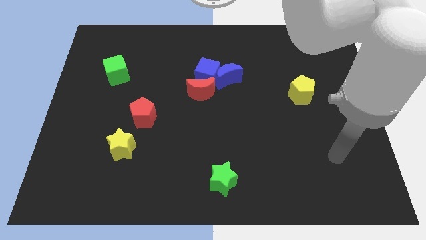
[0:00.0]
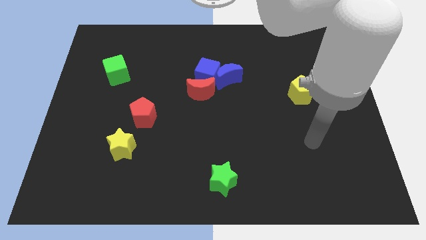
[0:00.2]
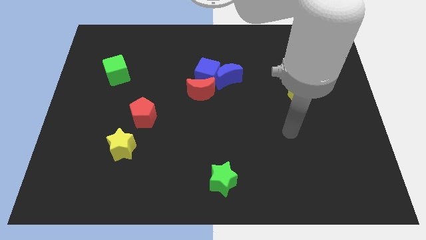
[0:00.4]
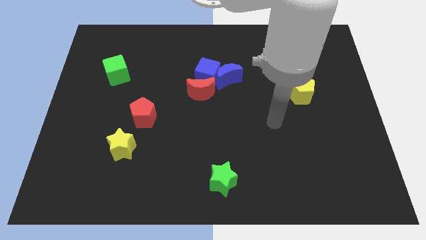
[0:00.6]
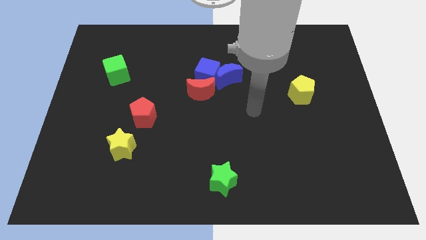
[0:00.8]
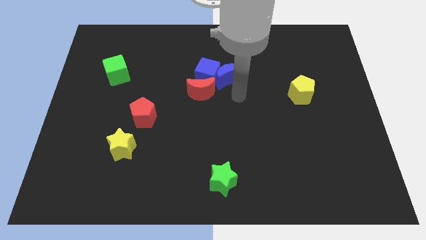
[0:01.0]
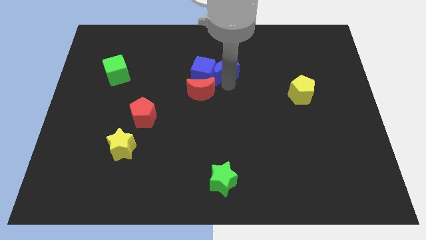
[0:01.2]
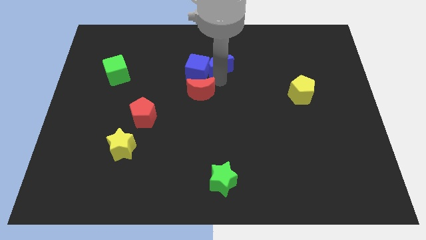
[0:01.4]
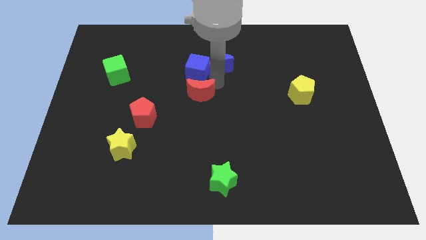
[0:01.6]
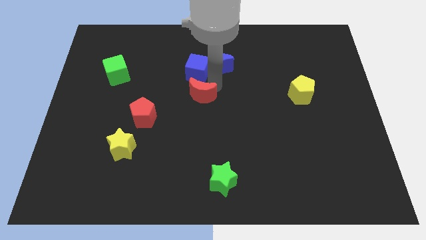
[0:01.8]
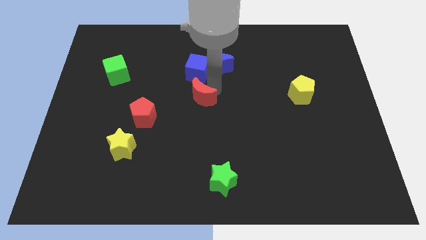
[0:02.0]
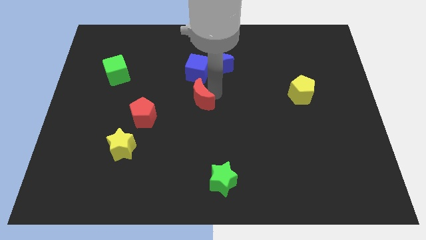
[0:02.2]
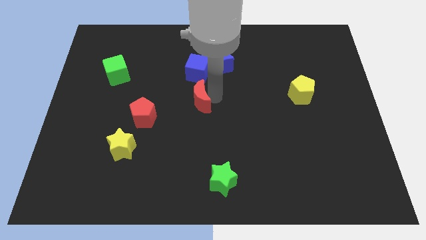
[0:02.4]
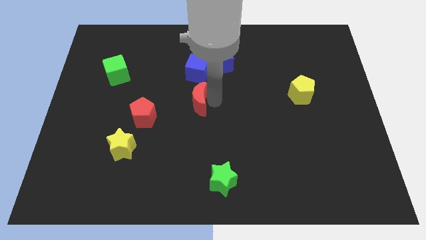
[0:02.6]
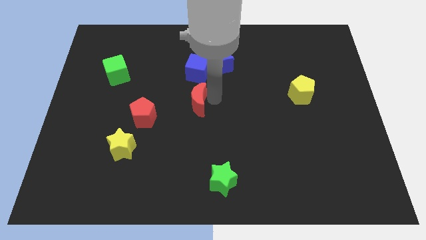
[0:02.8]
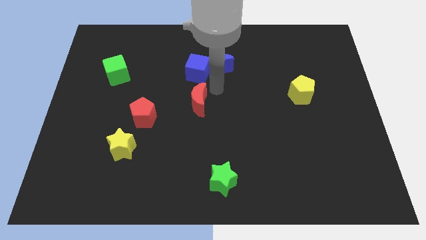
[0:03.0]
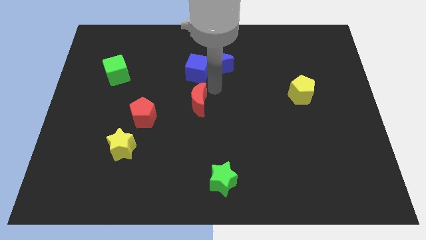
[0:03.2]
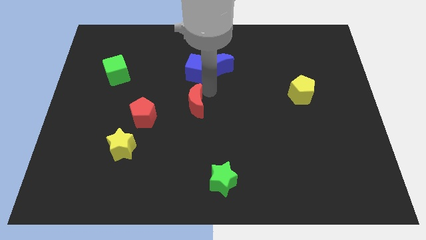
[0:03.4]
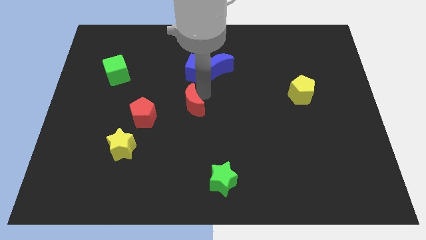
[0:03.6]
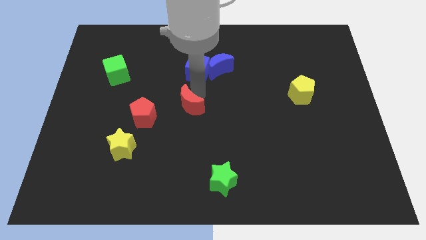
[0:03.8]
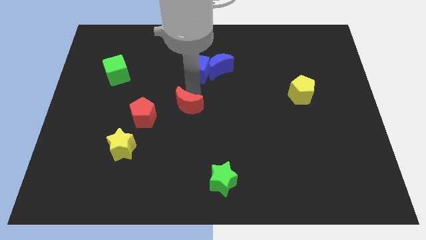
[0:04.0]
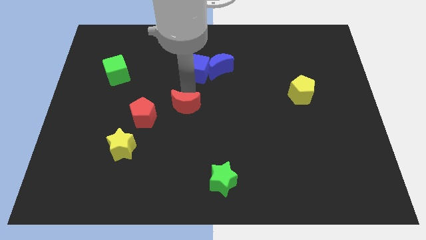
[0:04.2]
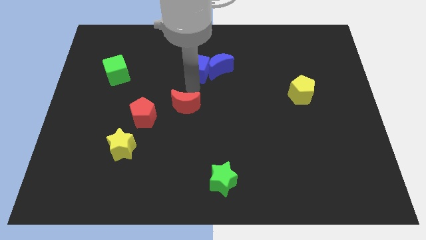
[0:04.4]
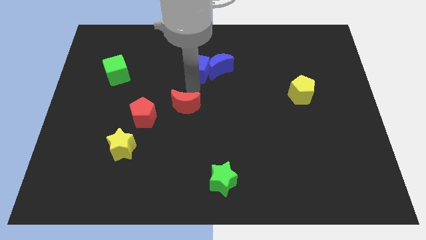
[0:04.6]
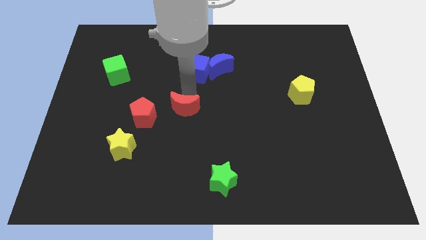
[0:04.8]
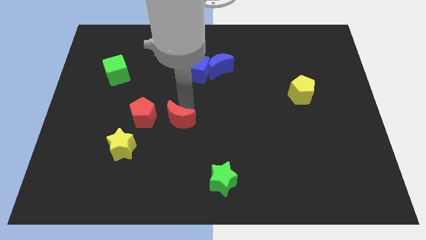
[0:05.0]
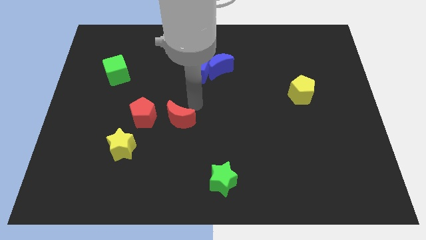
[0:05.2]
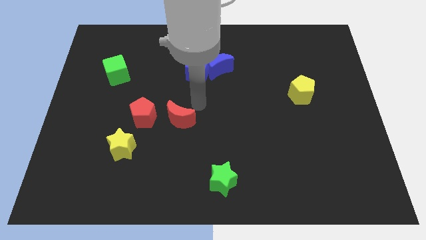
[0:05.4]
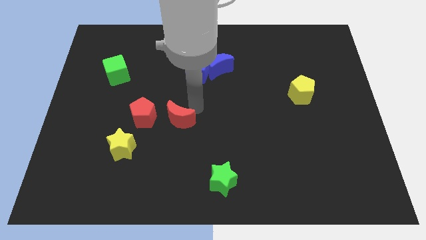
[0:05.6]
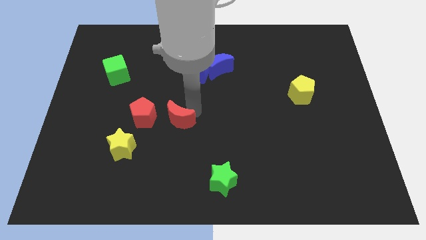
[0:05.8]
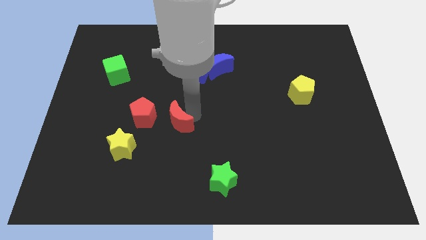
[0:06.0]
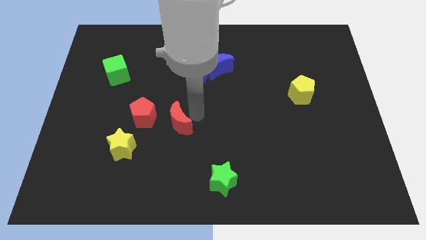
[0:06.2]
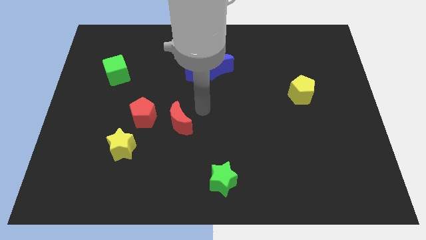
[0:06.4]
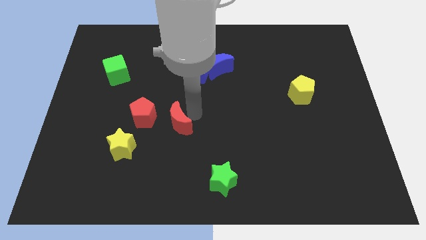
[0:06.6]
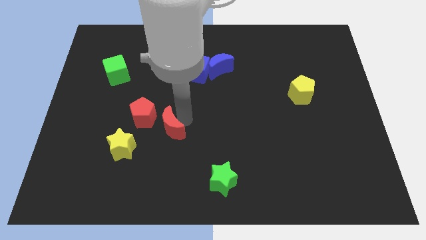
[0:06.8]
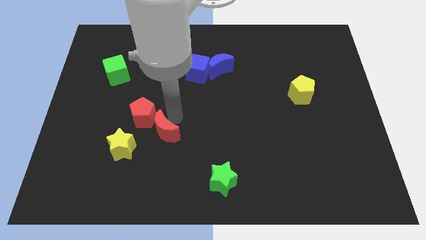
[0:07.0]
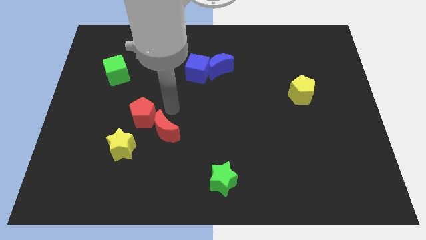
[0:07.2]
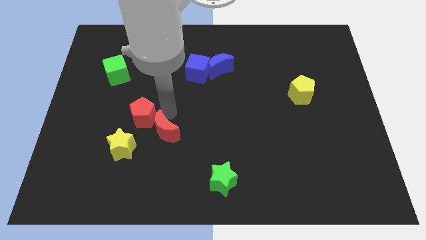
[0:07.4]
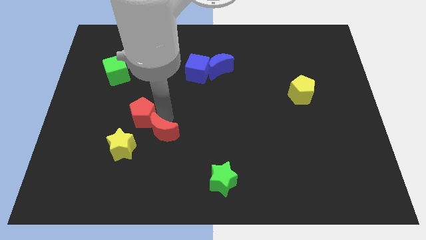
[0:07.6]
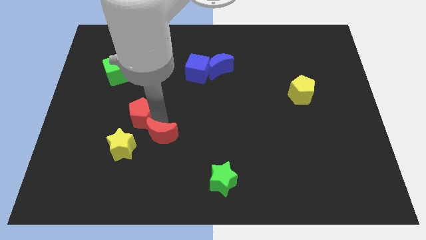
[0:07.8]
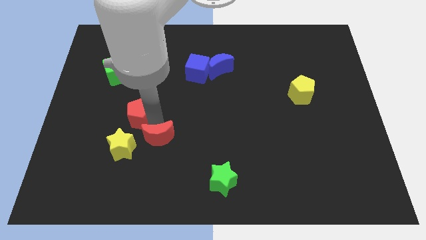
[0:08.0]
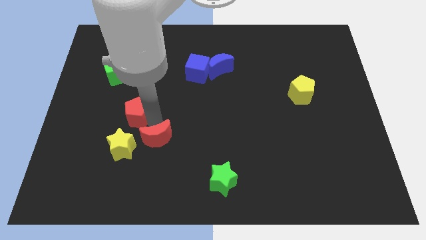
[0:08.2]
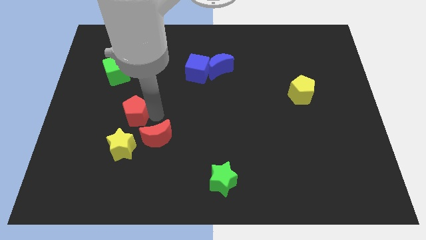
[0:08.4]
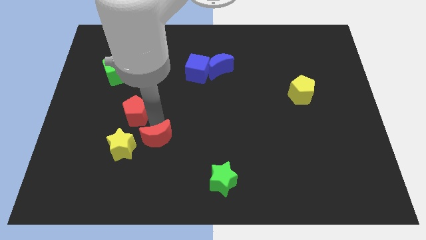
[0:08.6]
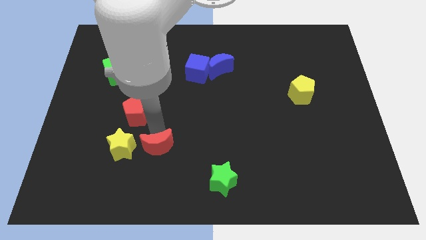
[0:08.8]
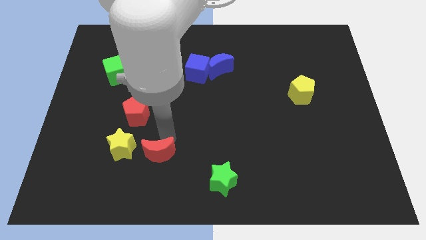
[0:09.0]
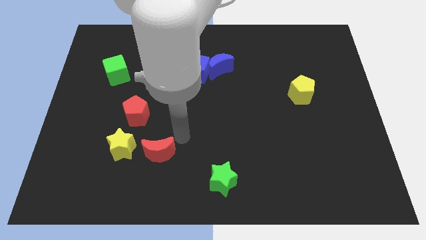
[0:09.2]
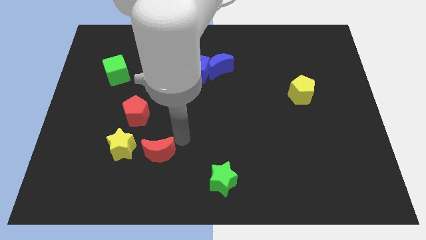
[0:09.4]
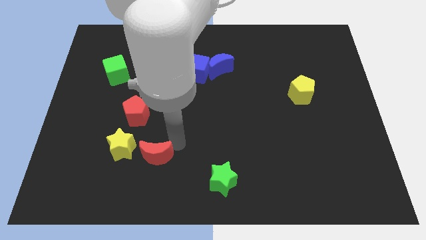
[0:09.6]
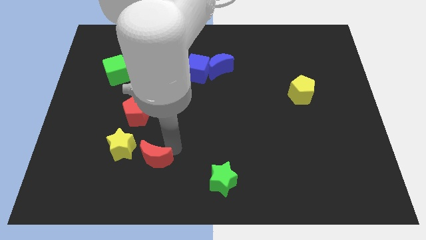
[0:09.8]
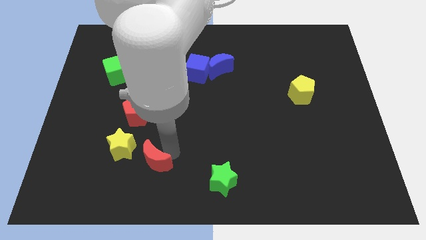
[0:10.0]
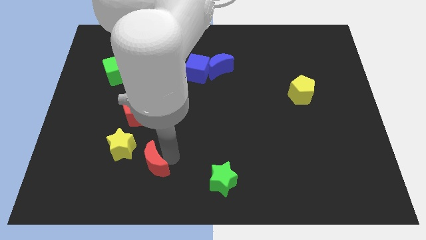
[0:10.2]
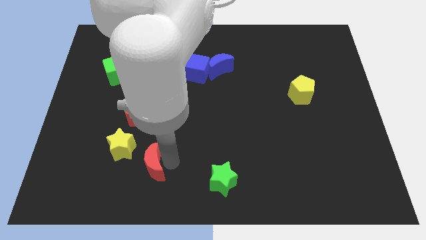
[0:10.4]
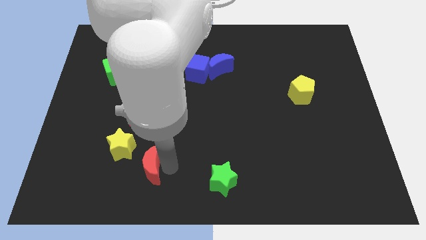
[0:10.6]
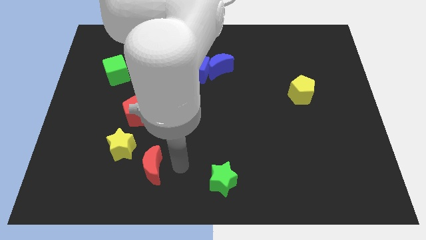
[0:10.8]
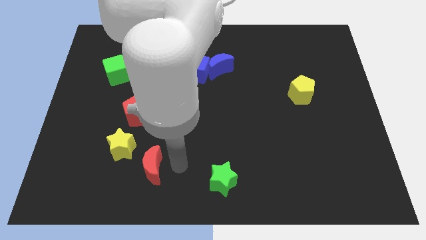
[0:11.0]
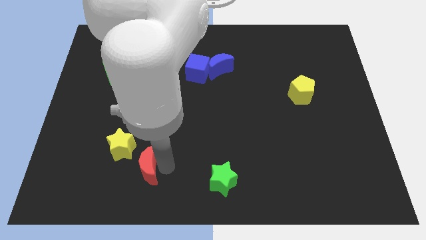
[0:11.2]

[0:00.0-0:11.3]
slide the red moon diagonally downwards and to the left

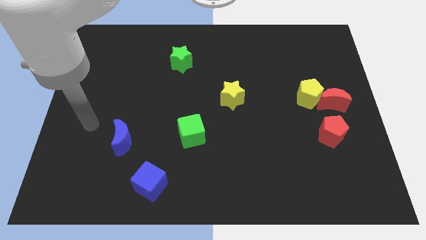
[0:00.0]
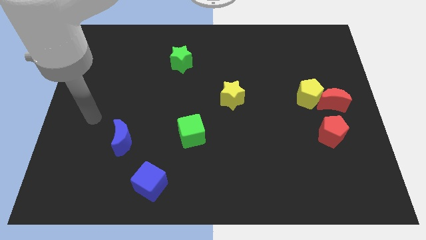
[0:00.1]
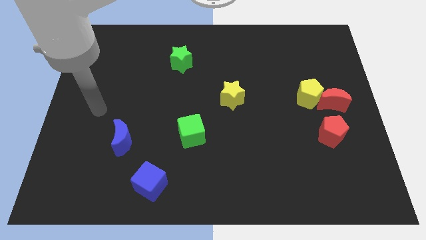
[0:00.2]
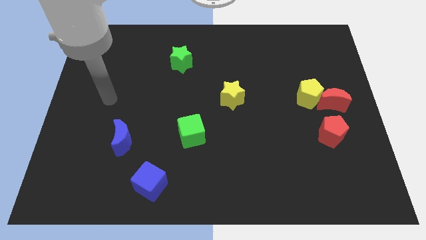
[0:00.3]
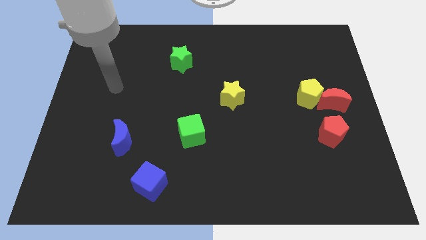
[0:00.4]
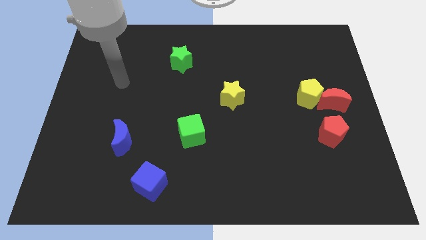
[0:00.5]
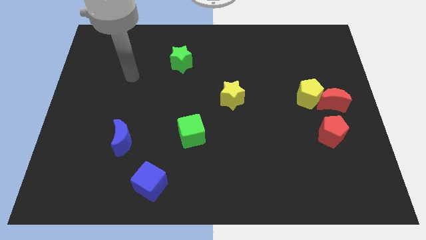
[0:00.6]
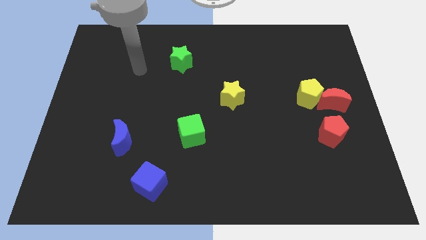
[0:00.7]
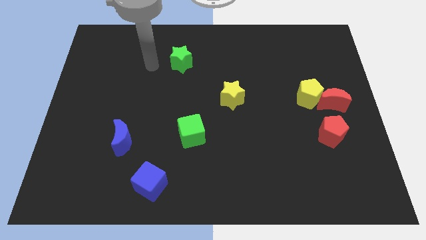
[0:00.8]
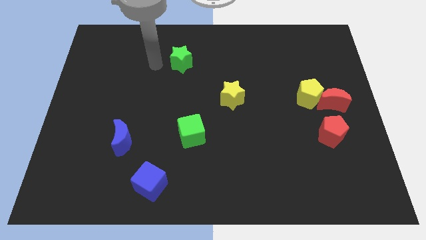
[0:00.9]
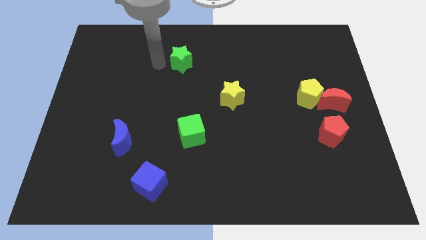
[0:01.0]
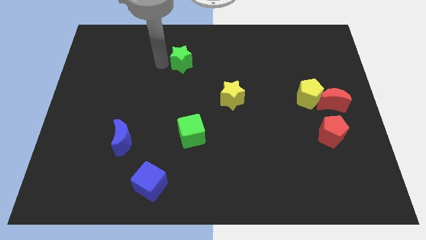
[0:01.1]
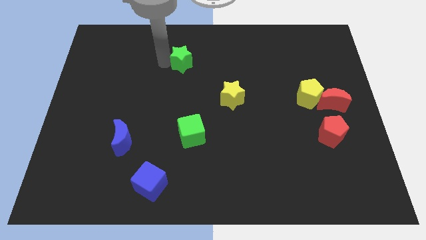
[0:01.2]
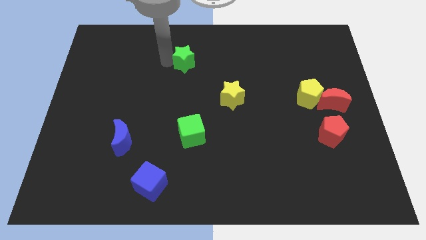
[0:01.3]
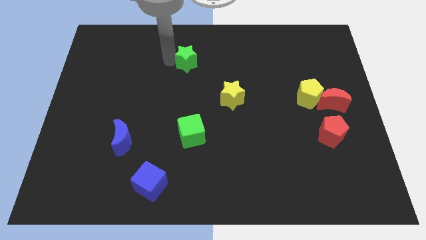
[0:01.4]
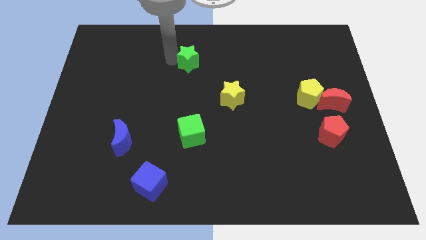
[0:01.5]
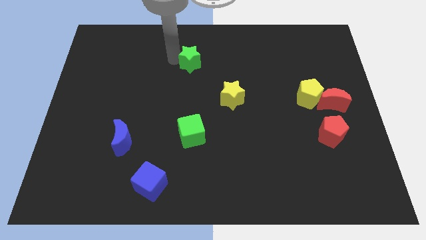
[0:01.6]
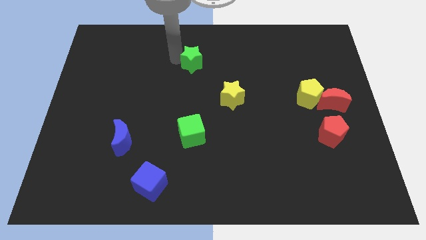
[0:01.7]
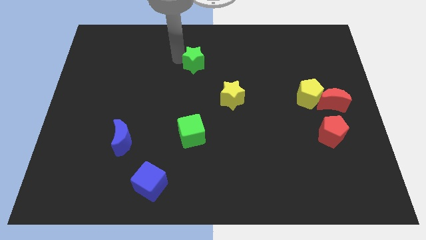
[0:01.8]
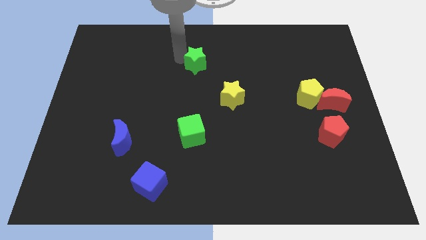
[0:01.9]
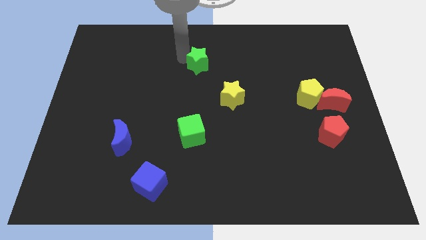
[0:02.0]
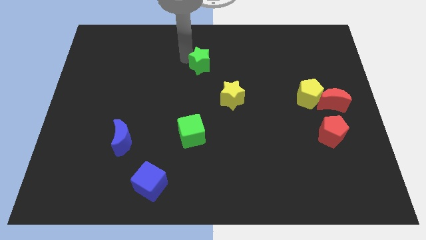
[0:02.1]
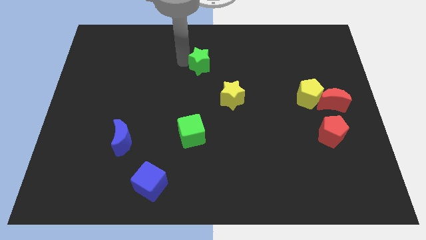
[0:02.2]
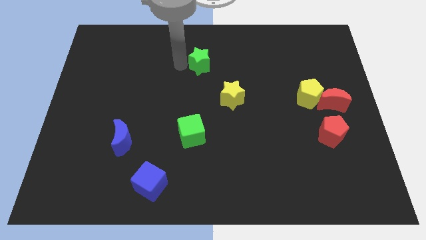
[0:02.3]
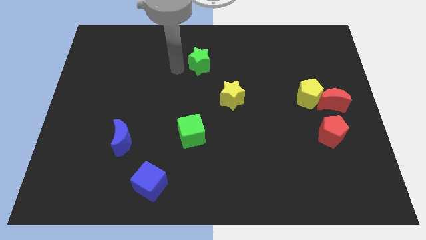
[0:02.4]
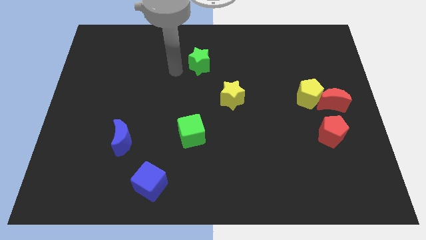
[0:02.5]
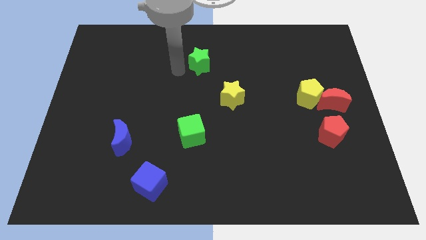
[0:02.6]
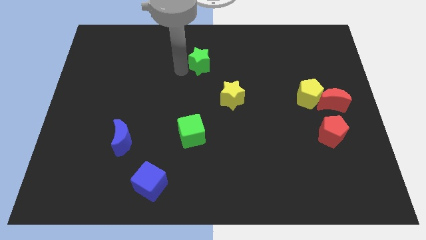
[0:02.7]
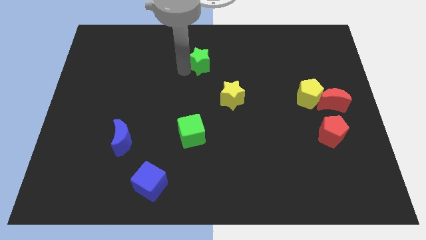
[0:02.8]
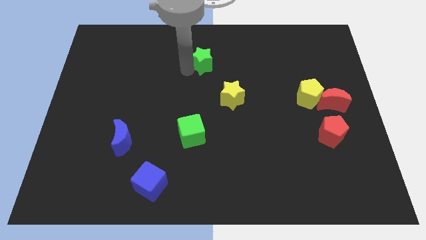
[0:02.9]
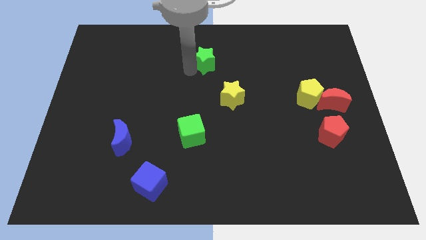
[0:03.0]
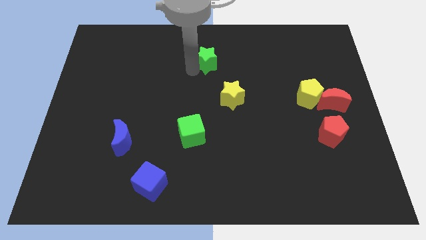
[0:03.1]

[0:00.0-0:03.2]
push the green star slightly to the right
